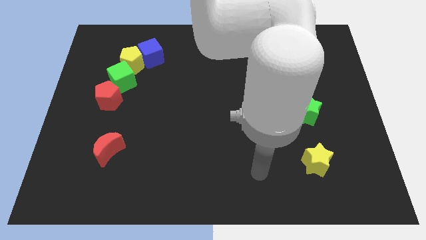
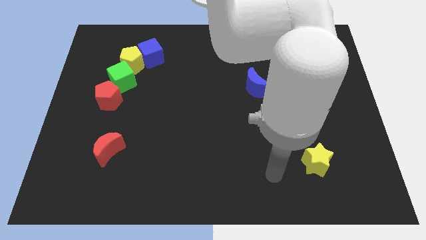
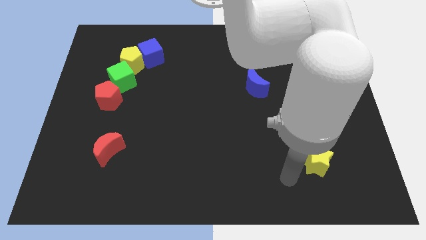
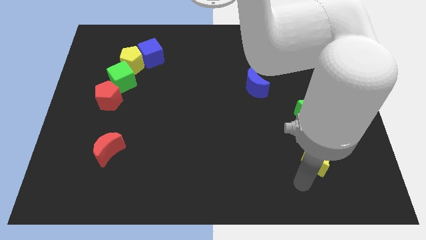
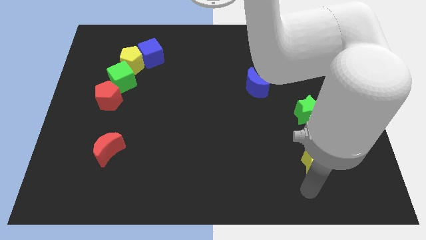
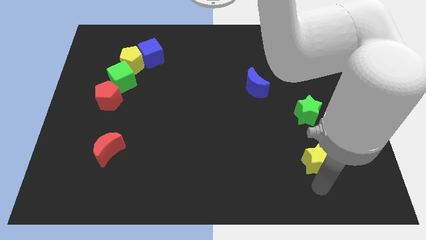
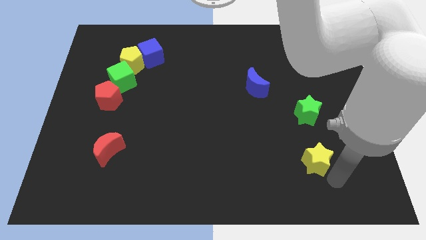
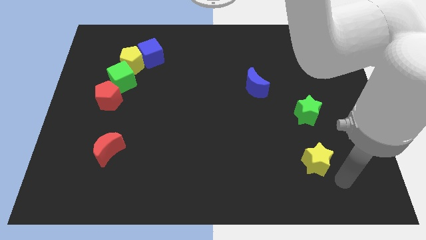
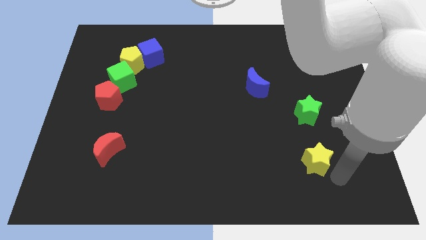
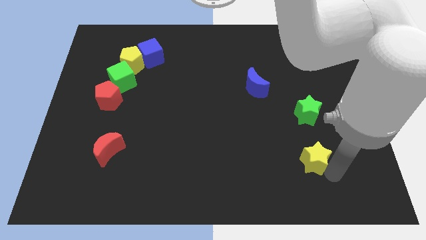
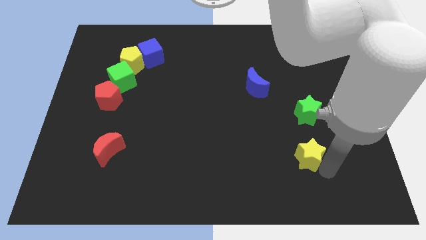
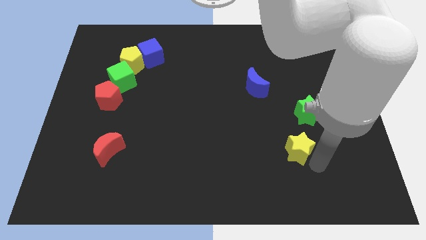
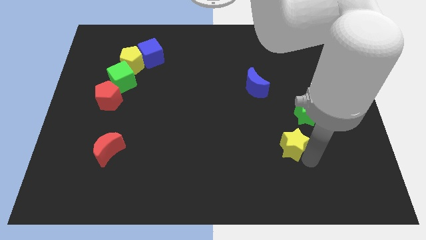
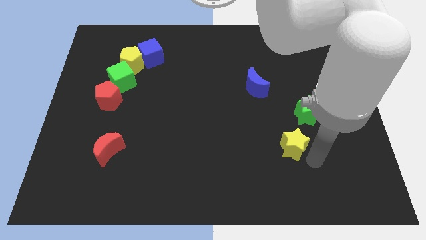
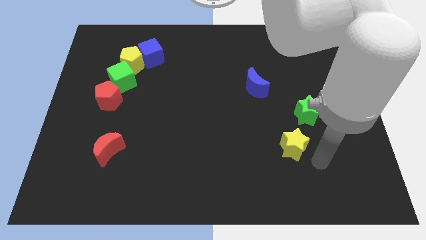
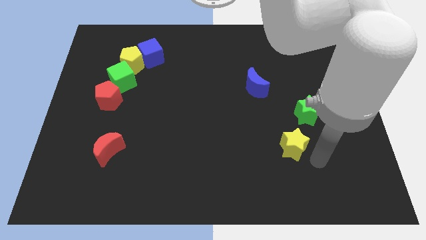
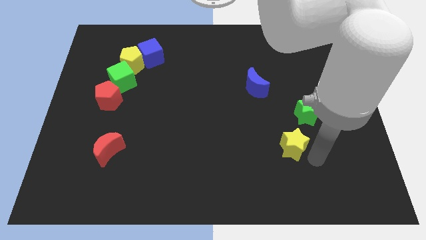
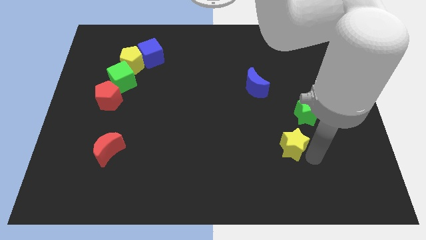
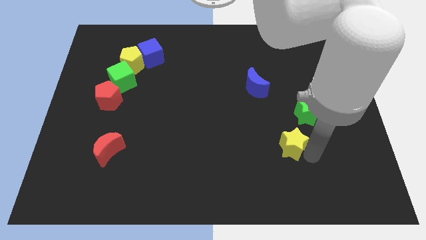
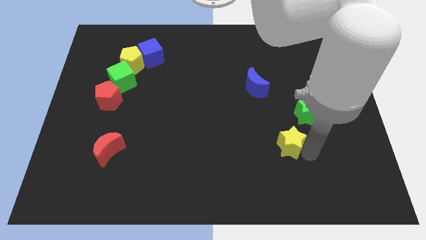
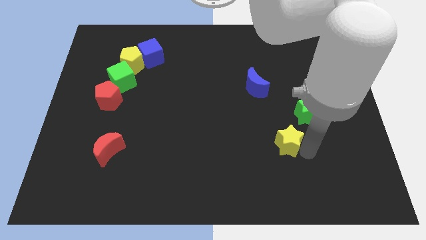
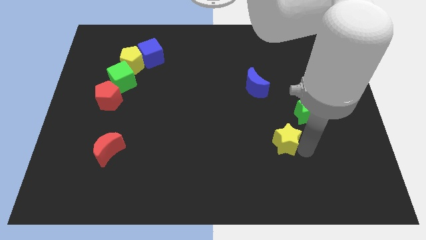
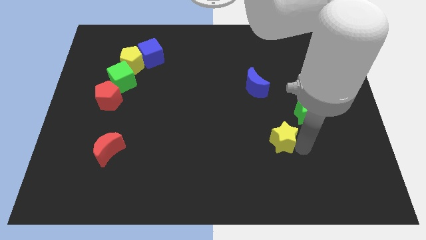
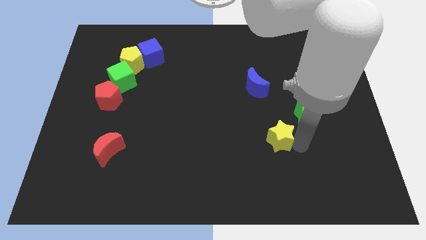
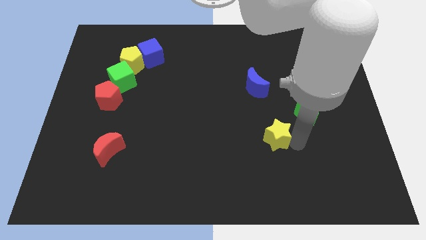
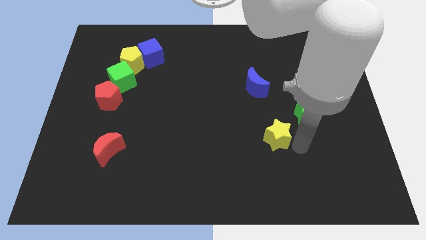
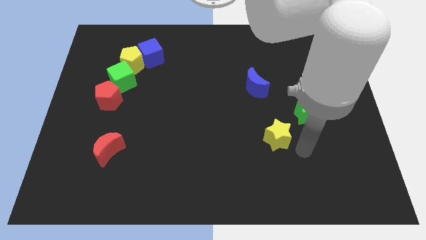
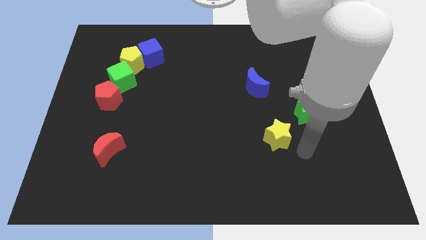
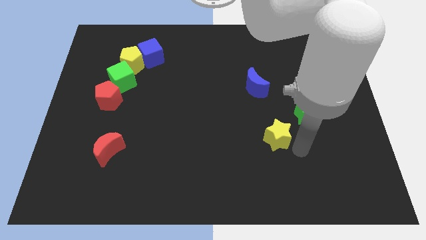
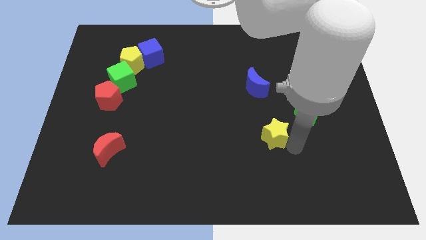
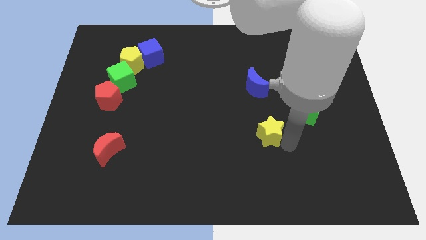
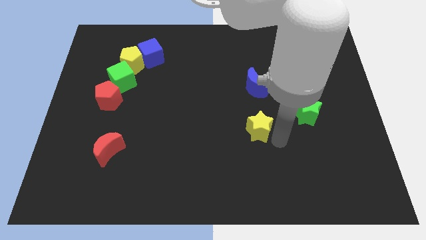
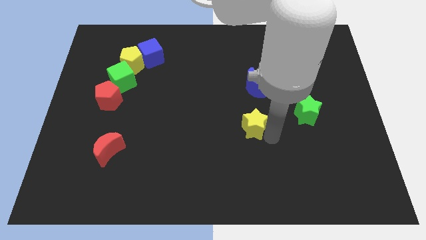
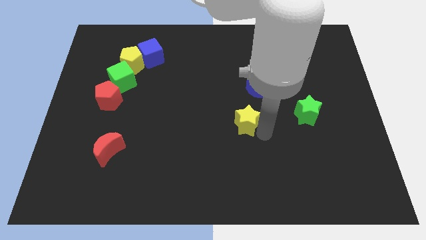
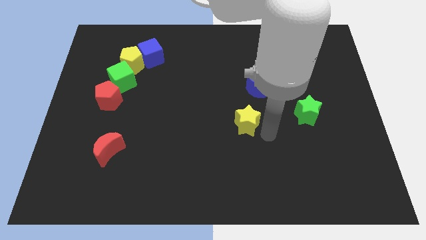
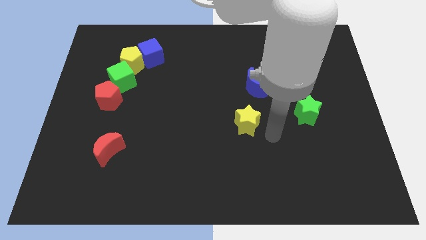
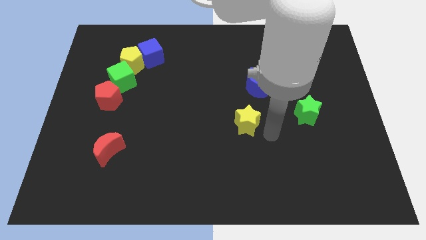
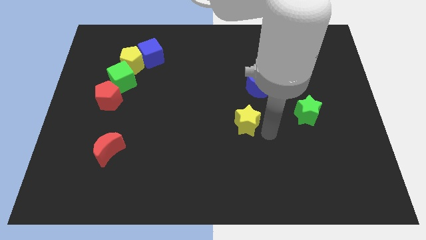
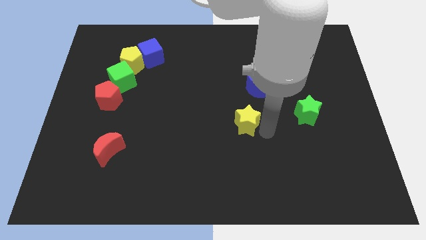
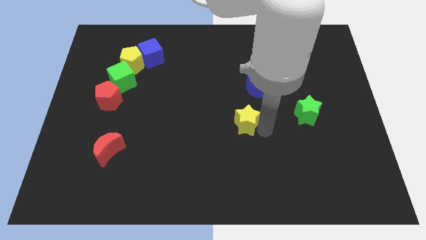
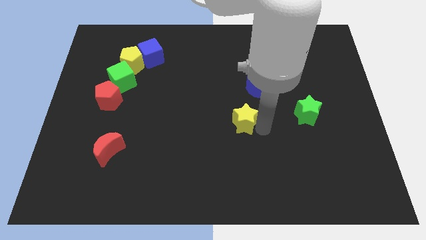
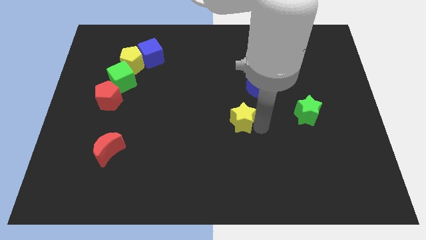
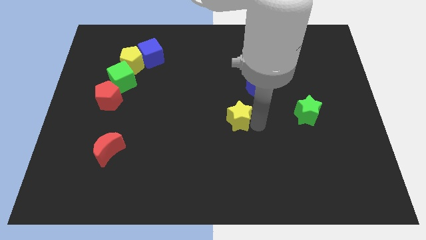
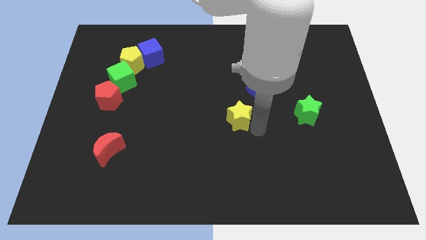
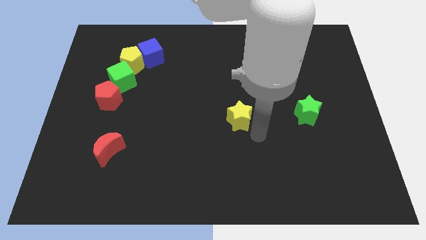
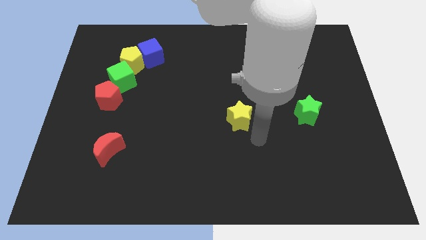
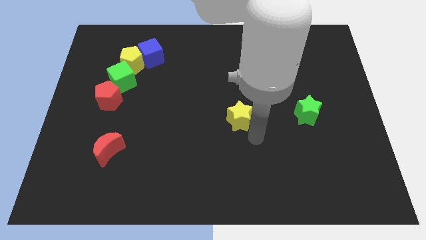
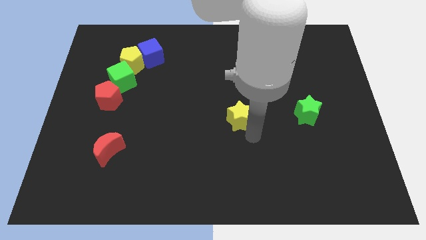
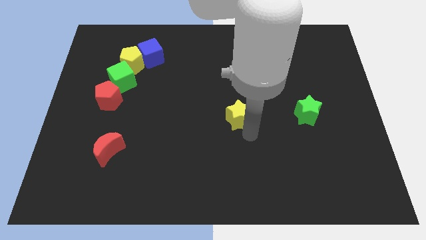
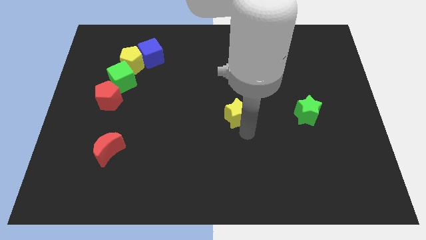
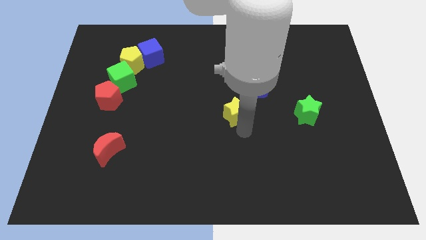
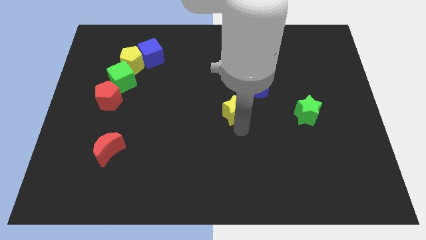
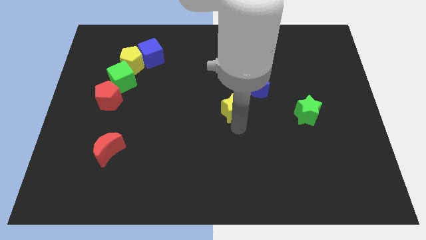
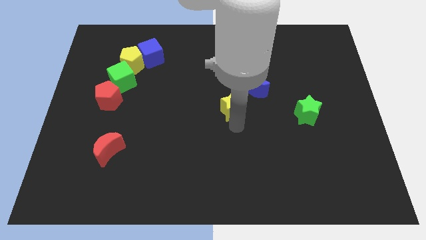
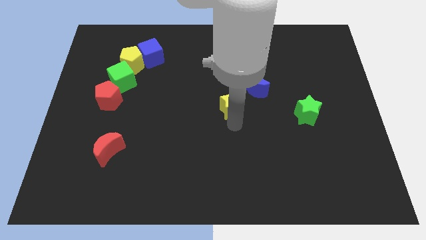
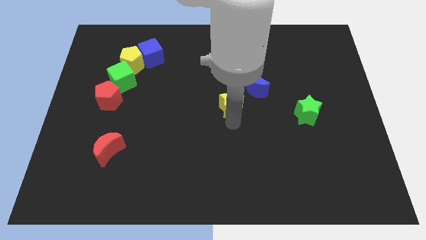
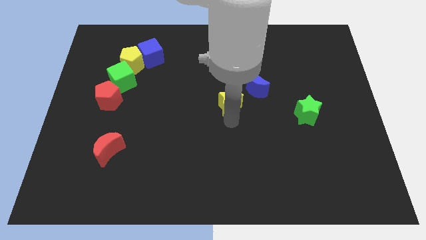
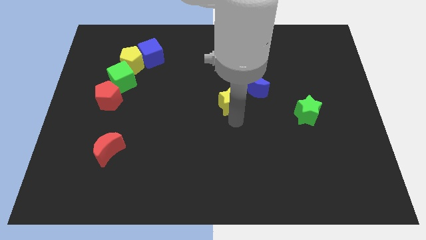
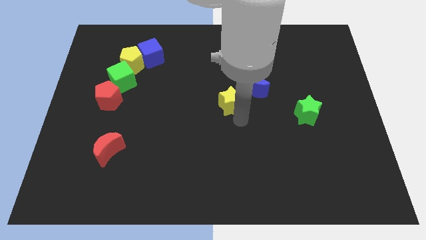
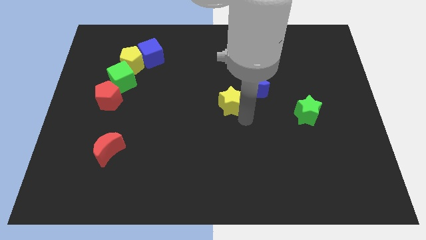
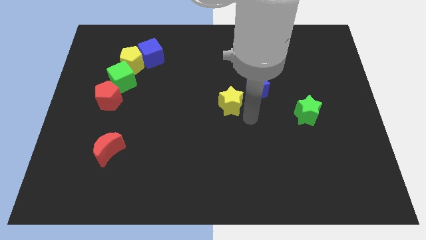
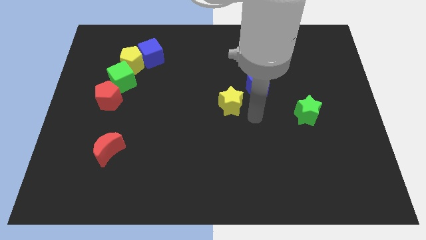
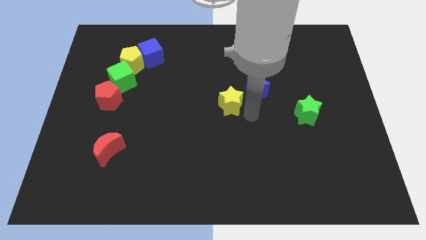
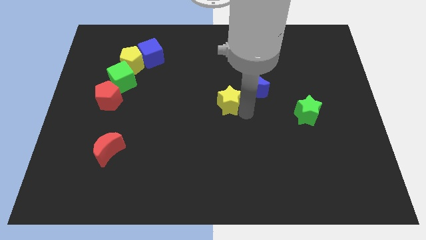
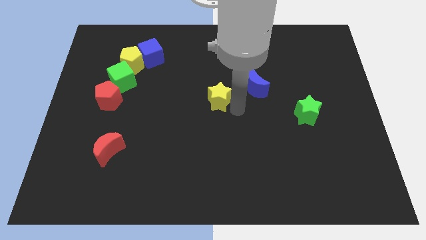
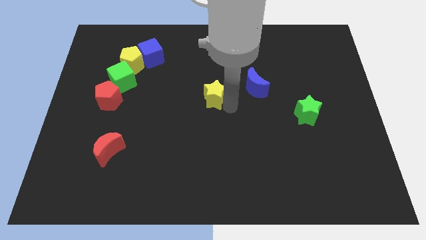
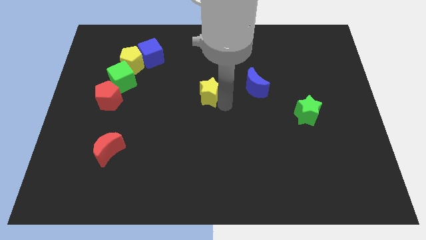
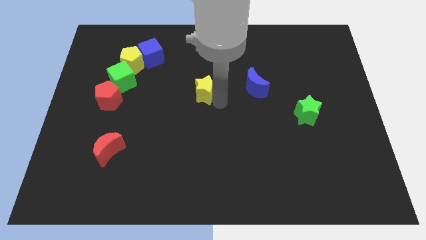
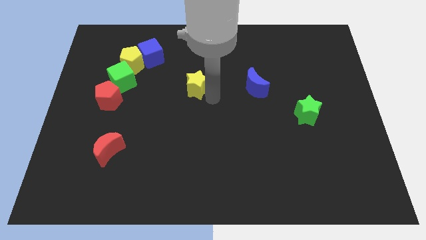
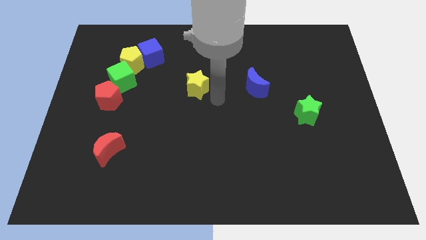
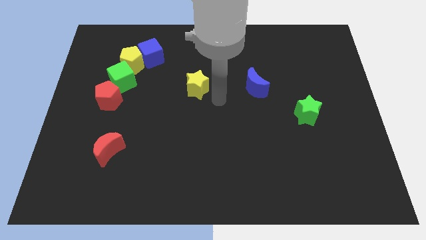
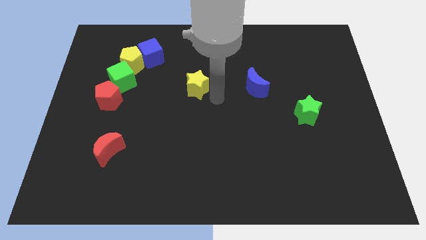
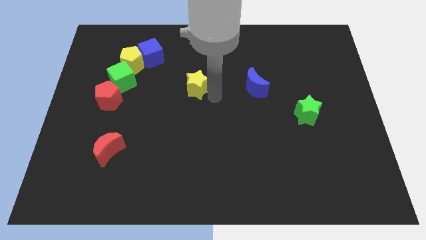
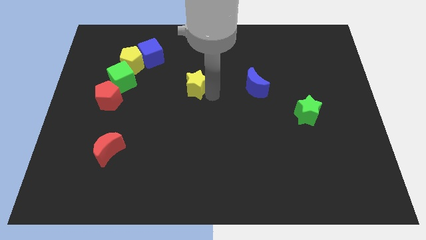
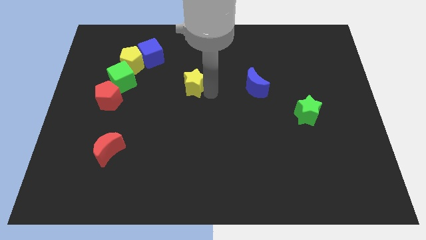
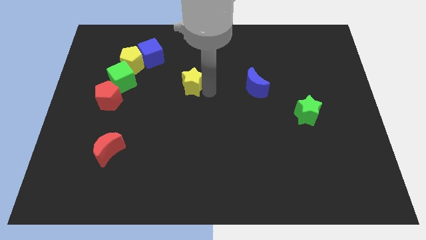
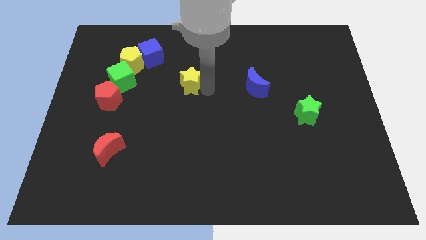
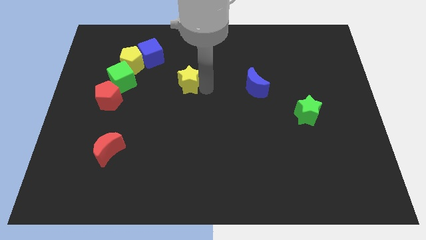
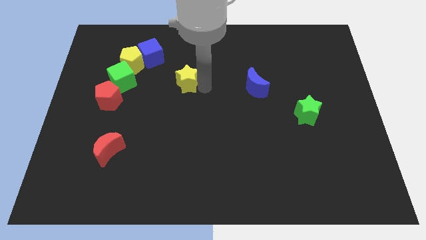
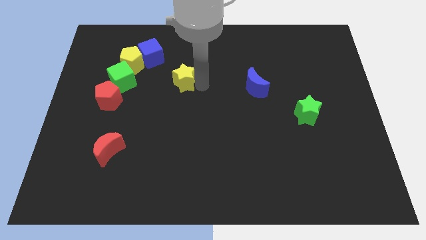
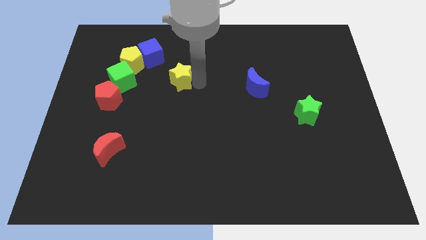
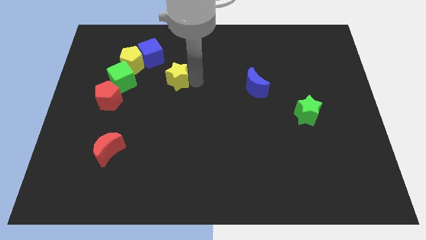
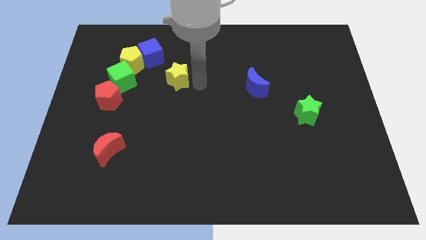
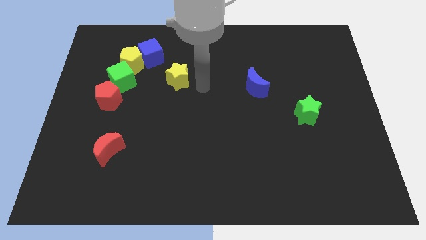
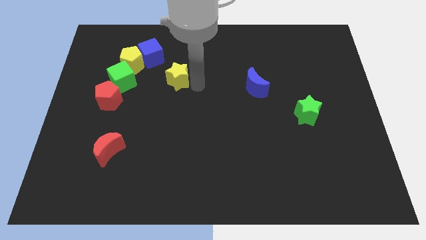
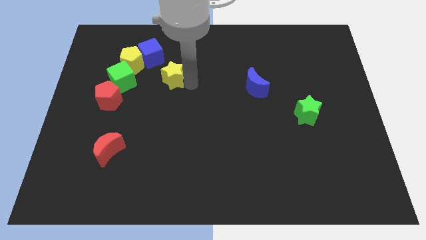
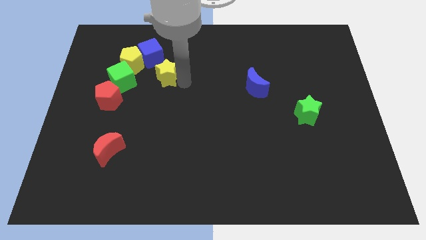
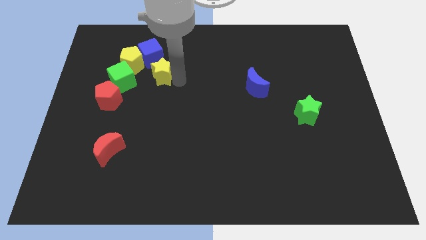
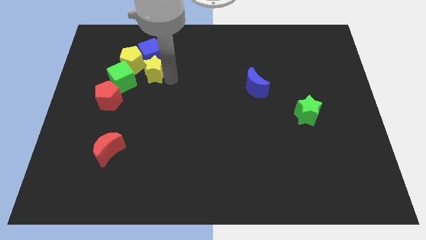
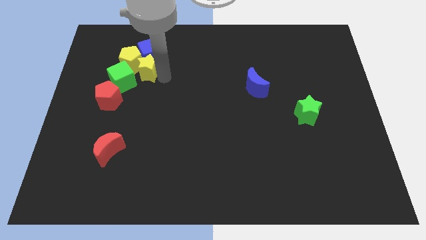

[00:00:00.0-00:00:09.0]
put the yellow star next to the yellow pentagon
